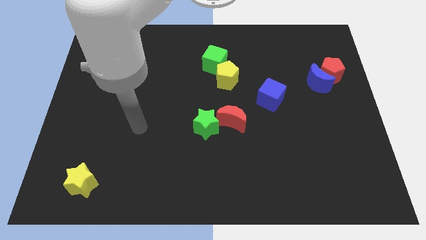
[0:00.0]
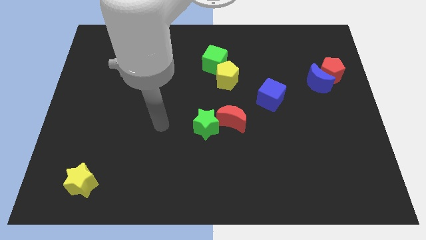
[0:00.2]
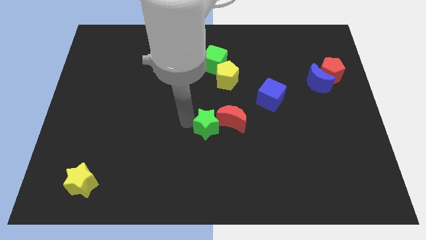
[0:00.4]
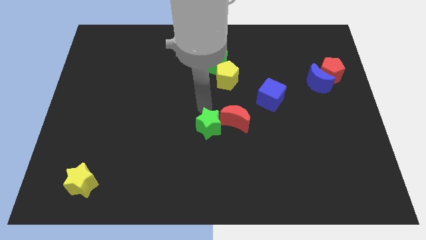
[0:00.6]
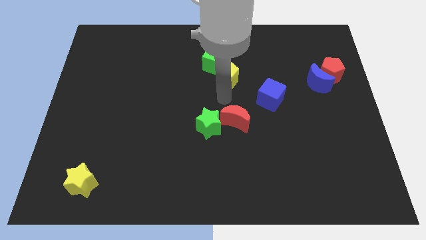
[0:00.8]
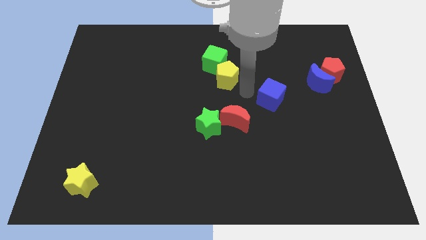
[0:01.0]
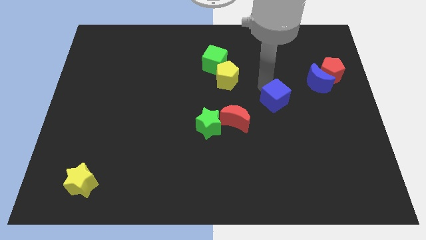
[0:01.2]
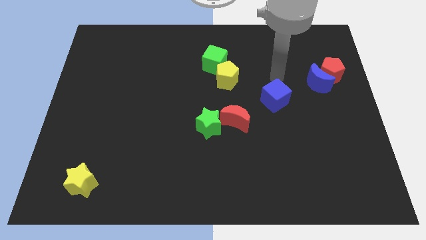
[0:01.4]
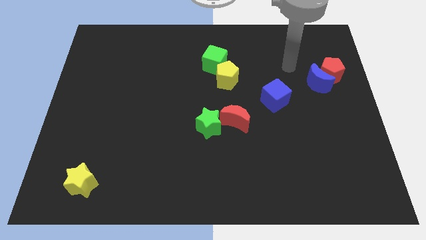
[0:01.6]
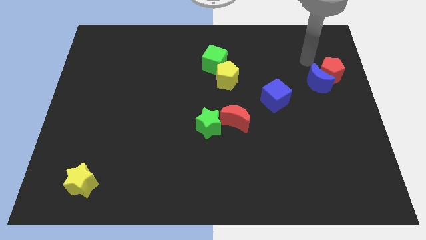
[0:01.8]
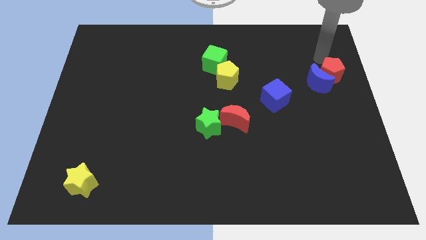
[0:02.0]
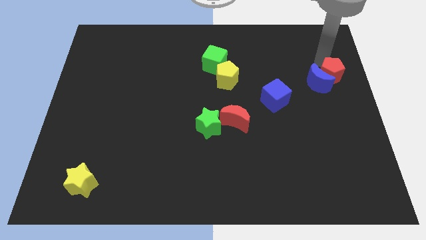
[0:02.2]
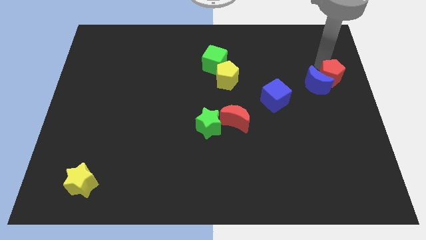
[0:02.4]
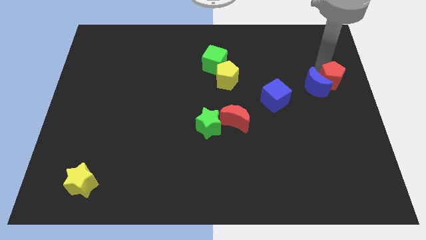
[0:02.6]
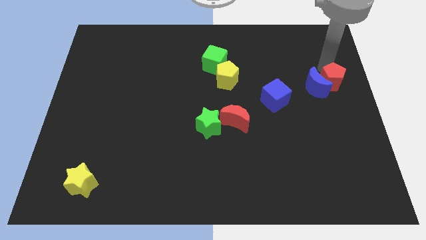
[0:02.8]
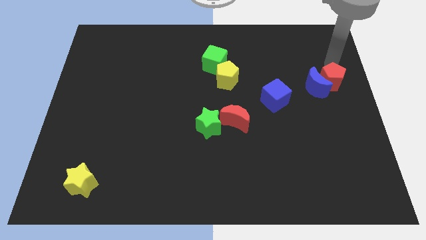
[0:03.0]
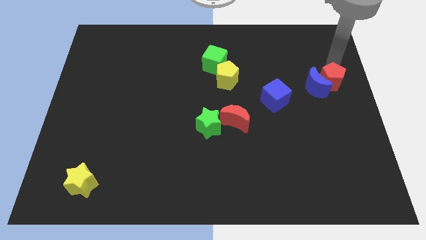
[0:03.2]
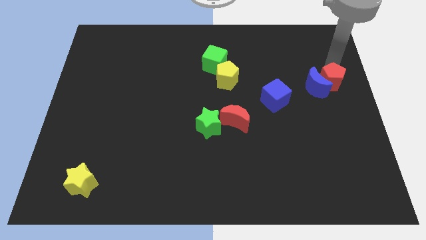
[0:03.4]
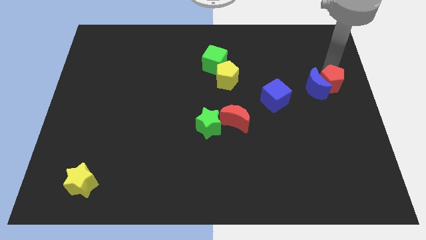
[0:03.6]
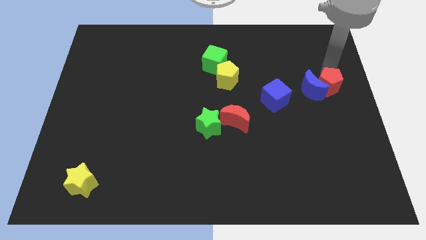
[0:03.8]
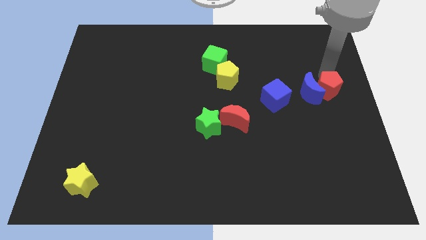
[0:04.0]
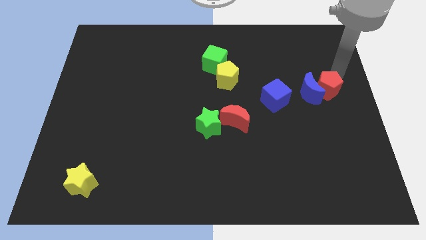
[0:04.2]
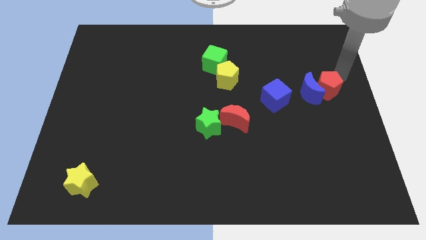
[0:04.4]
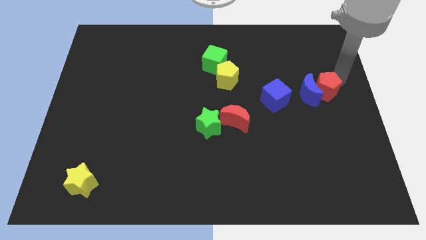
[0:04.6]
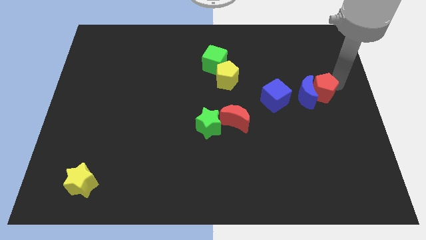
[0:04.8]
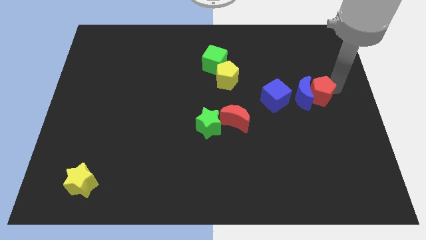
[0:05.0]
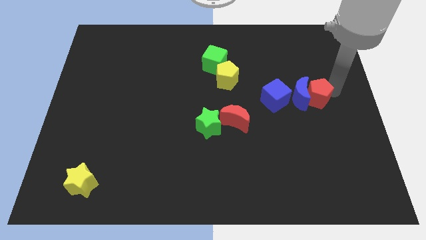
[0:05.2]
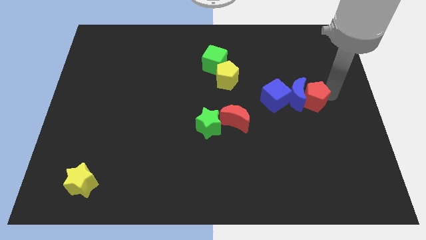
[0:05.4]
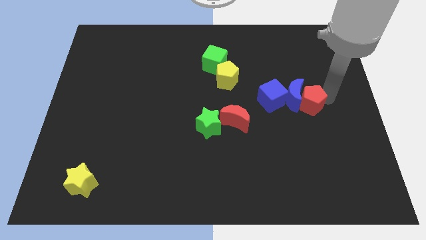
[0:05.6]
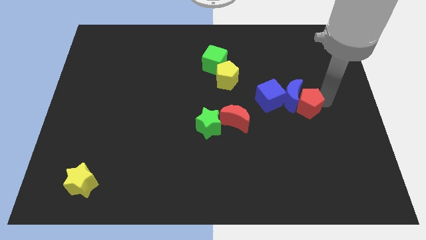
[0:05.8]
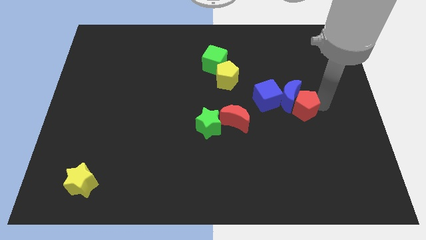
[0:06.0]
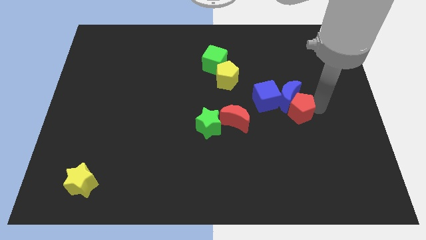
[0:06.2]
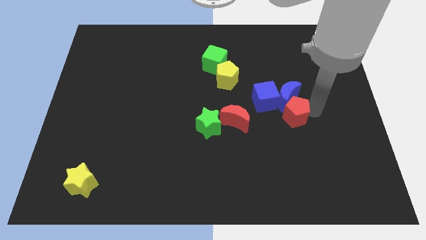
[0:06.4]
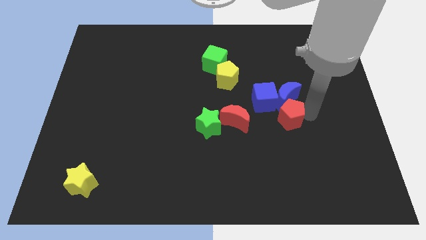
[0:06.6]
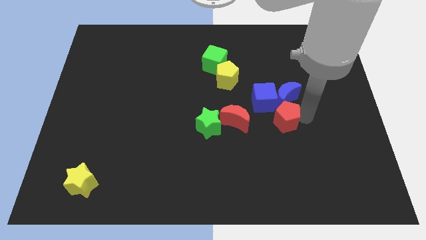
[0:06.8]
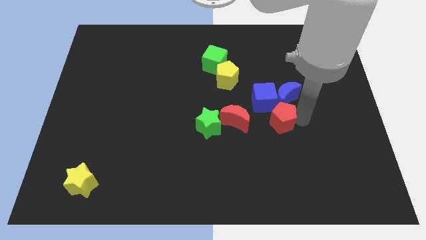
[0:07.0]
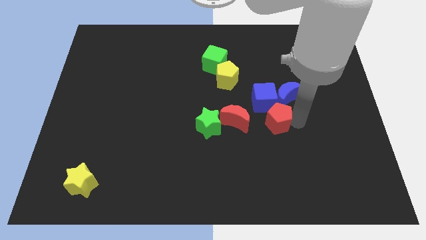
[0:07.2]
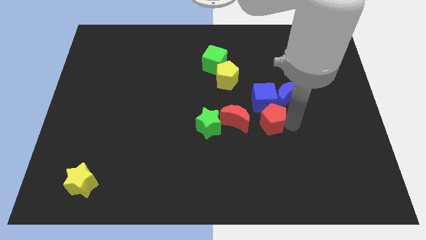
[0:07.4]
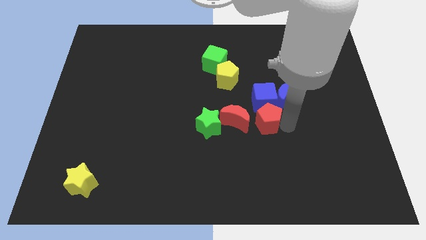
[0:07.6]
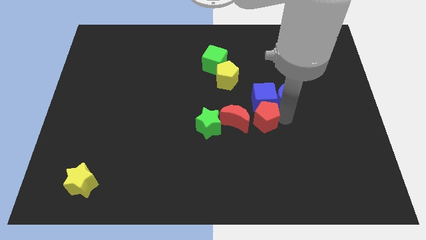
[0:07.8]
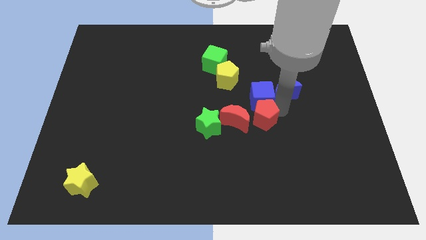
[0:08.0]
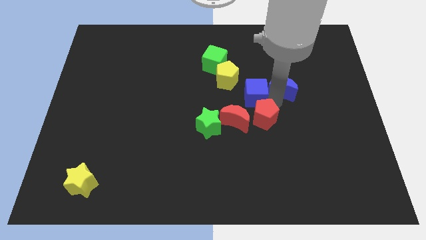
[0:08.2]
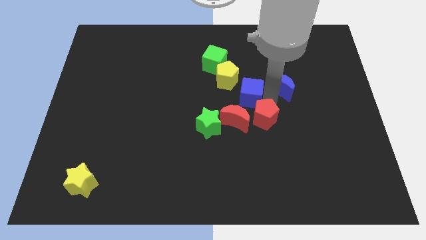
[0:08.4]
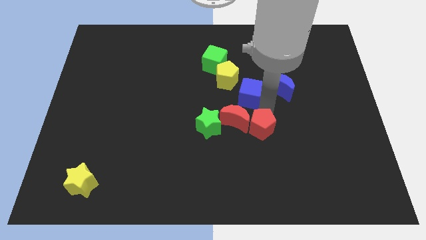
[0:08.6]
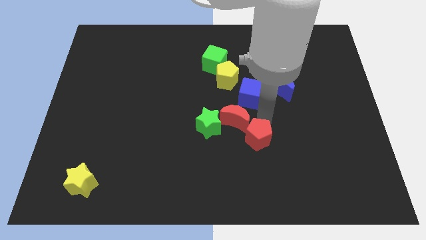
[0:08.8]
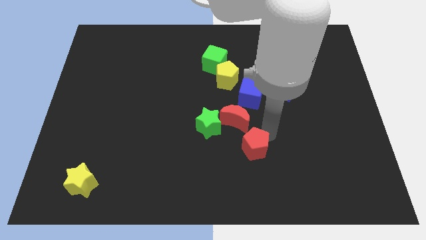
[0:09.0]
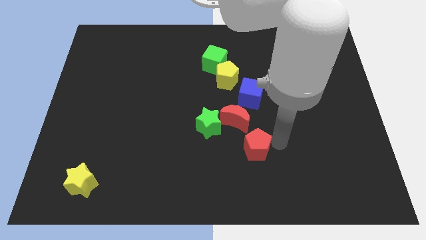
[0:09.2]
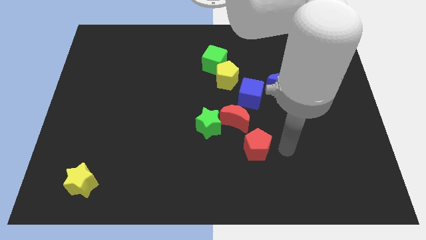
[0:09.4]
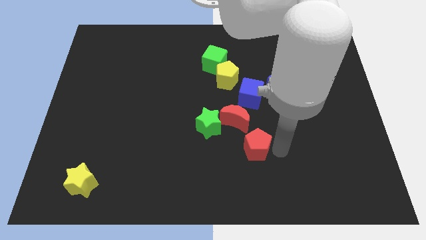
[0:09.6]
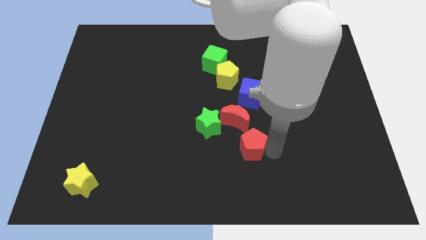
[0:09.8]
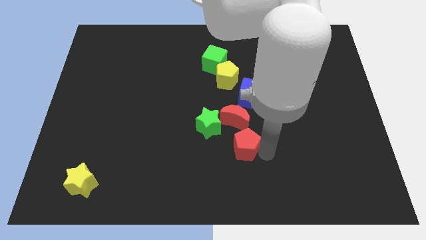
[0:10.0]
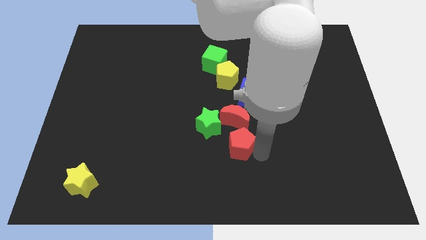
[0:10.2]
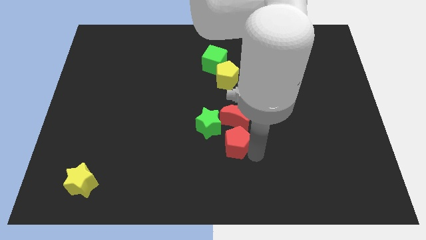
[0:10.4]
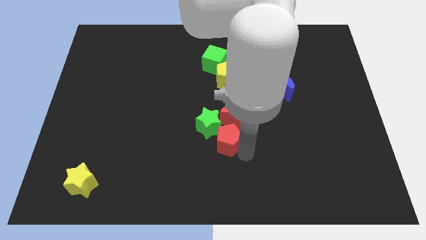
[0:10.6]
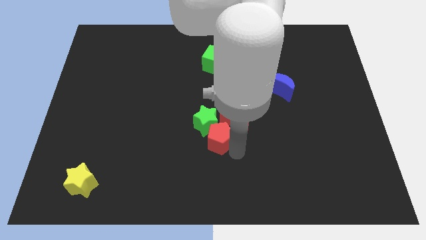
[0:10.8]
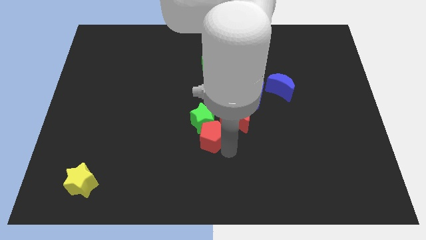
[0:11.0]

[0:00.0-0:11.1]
slide the red pentagon diagonally down and to the left of the green star

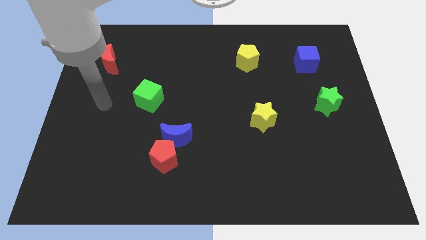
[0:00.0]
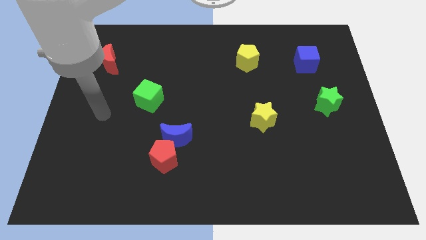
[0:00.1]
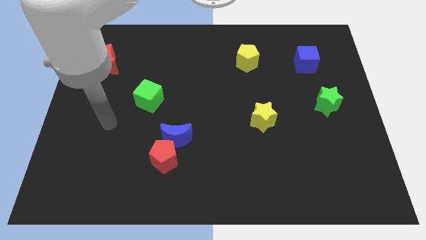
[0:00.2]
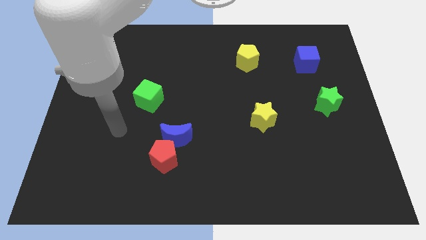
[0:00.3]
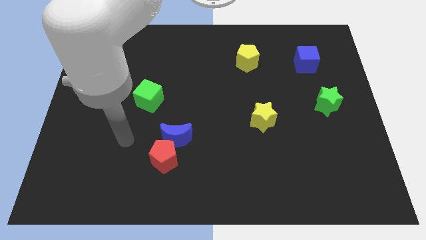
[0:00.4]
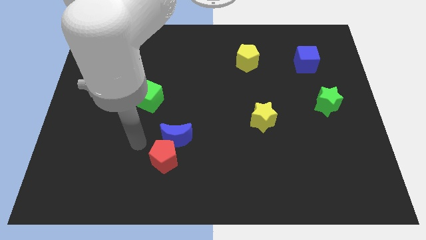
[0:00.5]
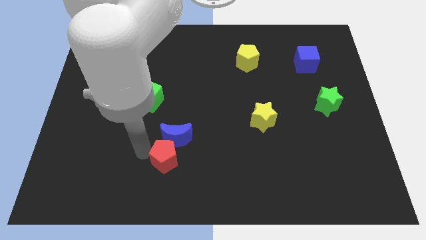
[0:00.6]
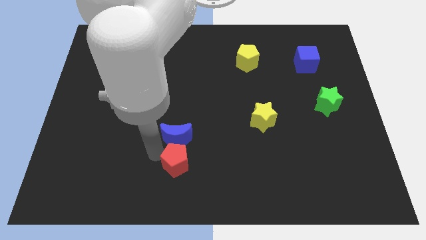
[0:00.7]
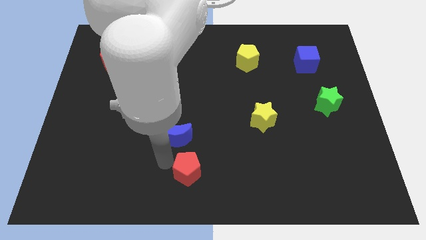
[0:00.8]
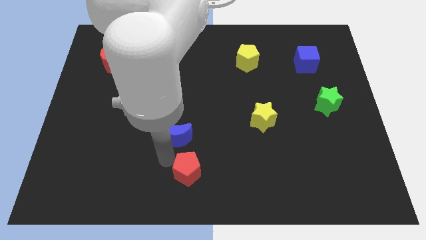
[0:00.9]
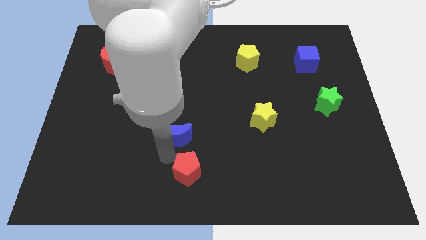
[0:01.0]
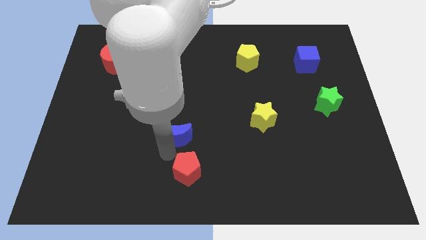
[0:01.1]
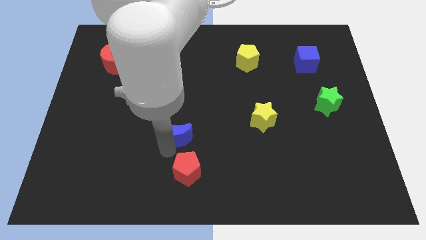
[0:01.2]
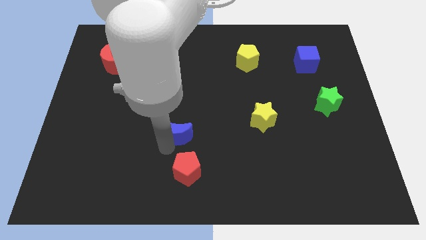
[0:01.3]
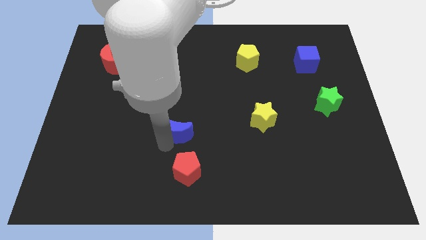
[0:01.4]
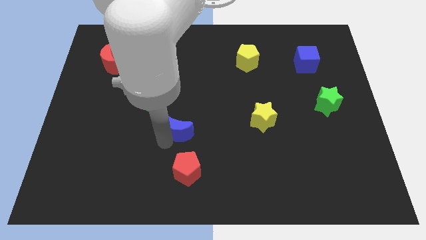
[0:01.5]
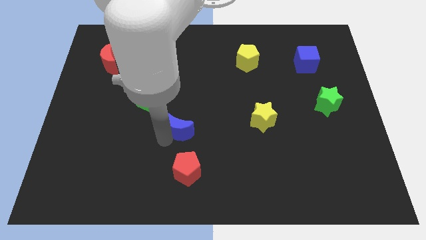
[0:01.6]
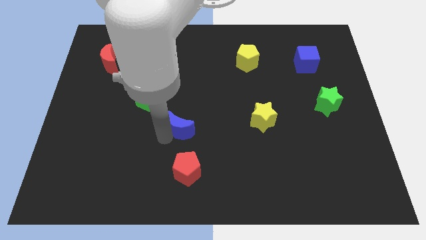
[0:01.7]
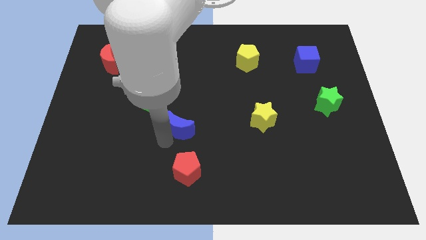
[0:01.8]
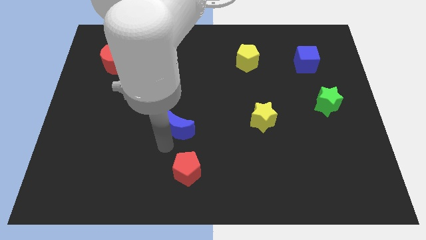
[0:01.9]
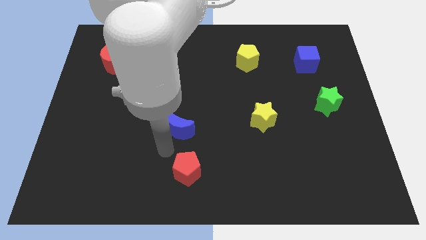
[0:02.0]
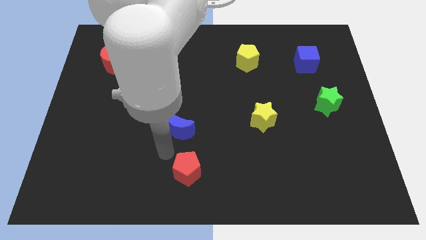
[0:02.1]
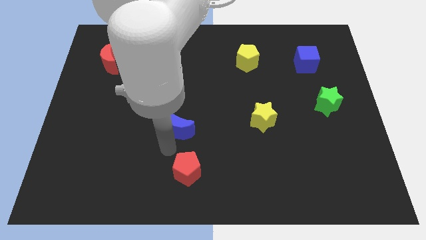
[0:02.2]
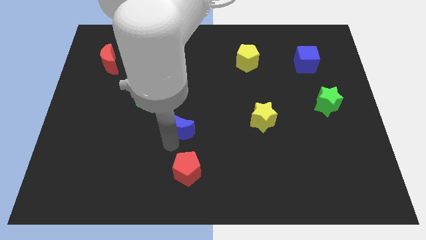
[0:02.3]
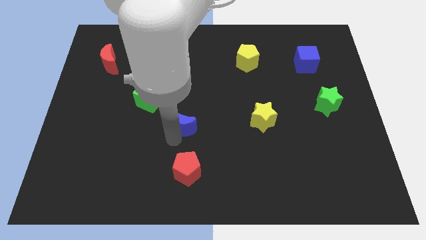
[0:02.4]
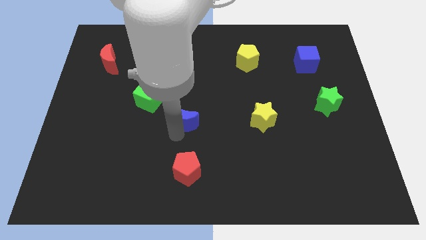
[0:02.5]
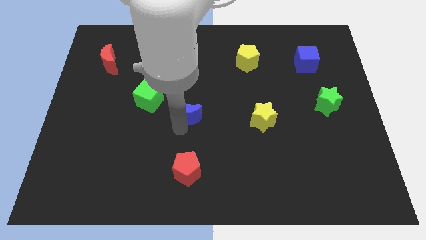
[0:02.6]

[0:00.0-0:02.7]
slide the blue moon right of the green cube
